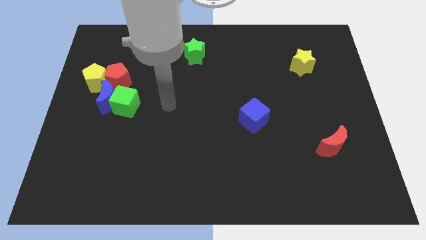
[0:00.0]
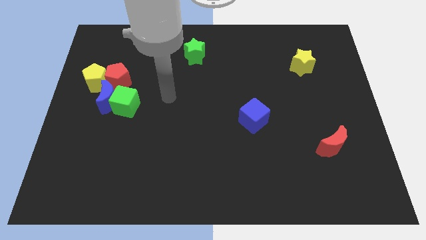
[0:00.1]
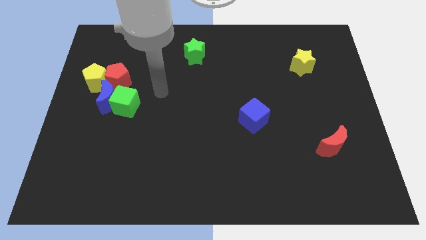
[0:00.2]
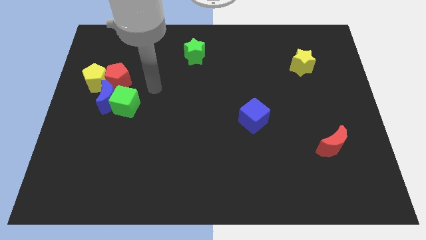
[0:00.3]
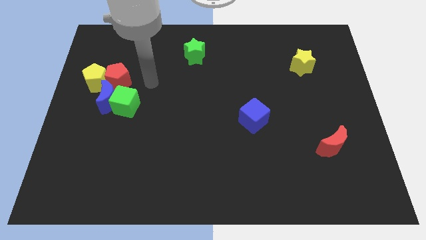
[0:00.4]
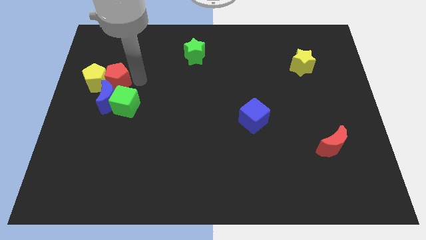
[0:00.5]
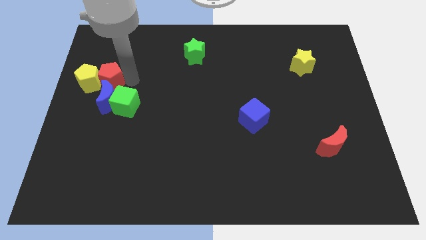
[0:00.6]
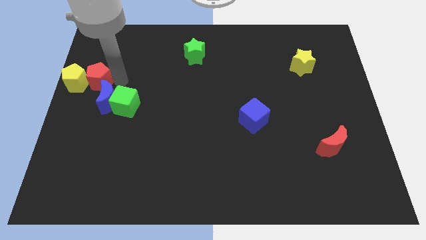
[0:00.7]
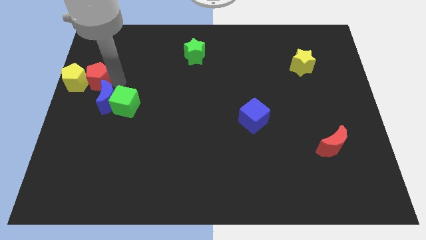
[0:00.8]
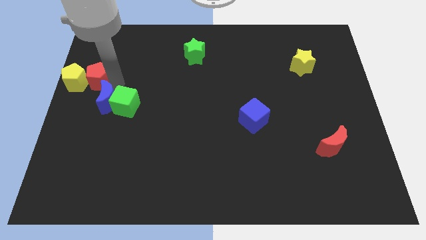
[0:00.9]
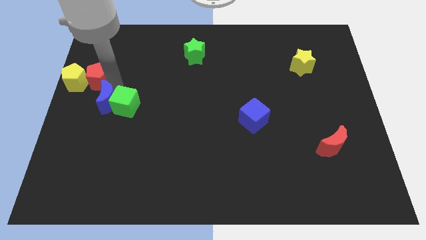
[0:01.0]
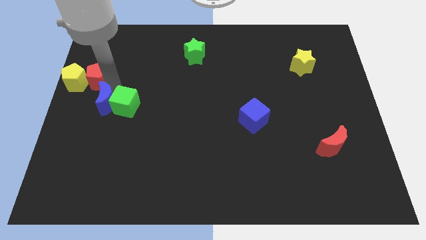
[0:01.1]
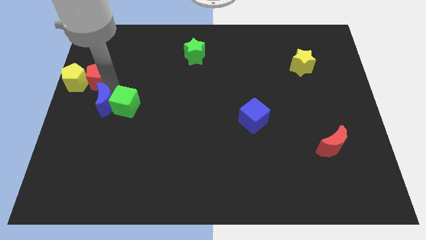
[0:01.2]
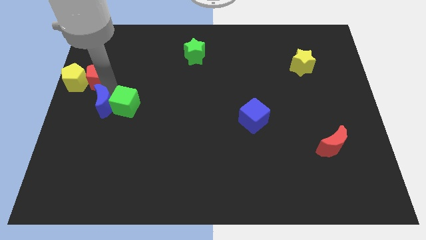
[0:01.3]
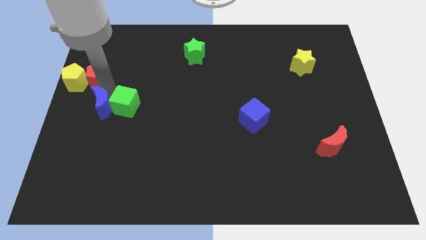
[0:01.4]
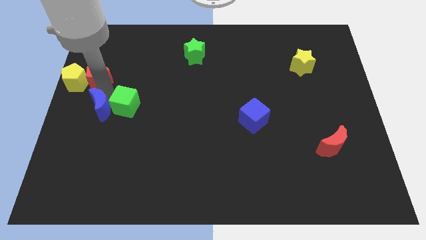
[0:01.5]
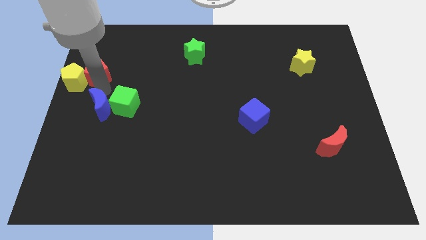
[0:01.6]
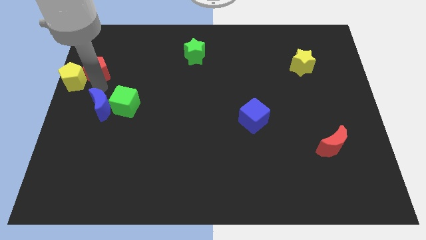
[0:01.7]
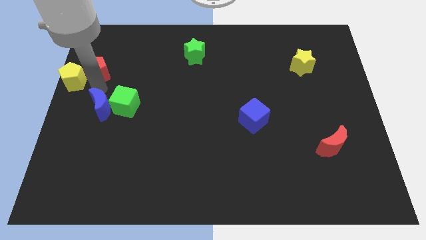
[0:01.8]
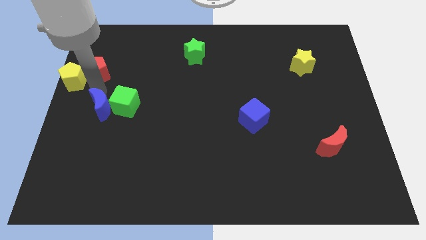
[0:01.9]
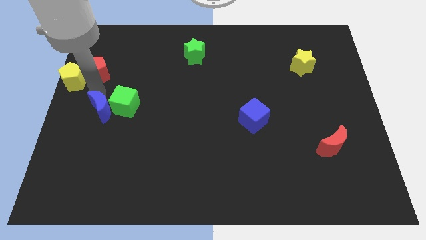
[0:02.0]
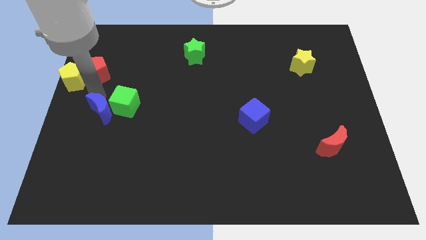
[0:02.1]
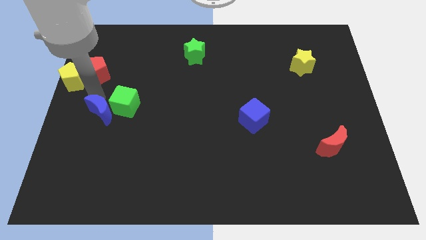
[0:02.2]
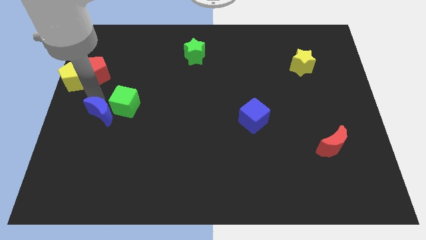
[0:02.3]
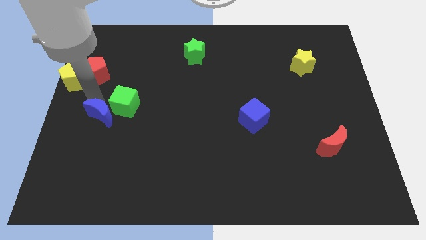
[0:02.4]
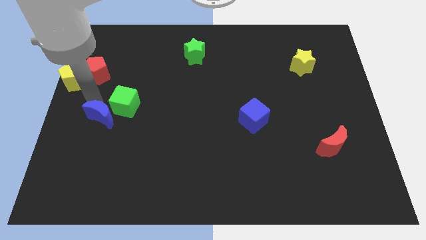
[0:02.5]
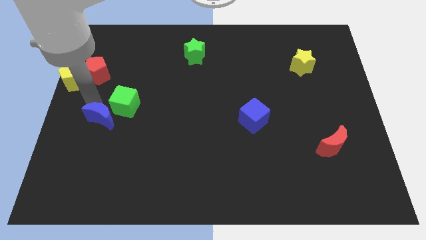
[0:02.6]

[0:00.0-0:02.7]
separate the blue moon from the green cube, red pentagon, and yellow pentagon

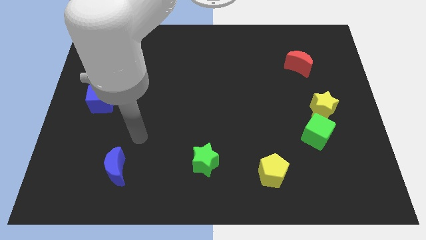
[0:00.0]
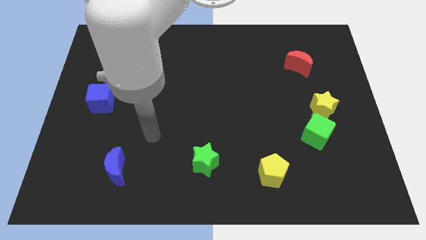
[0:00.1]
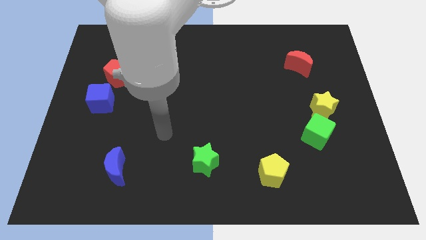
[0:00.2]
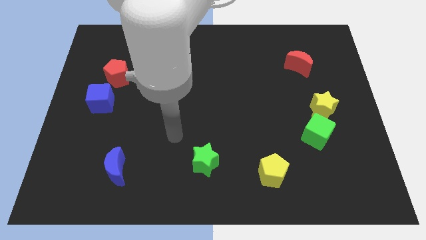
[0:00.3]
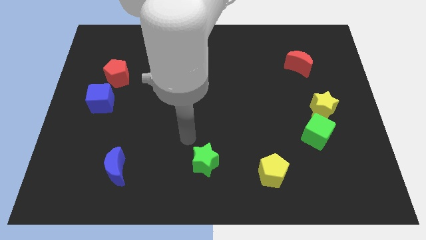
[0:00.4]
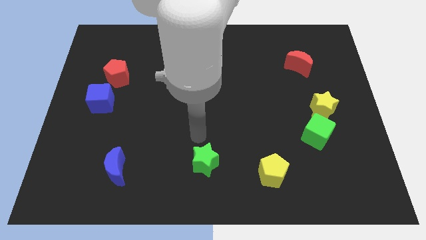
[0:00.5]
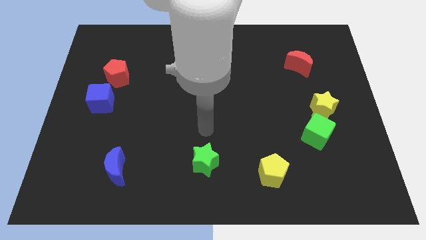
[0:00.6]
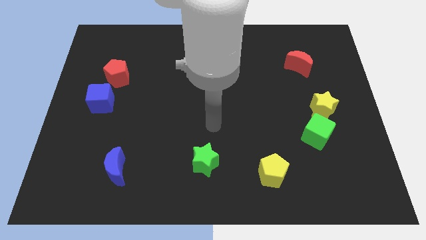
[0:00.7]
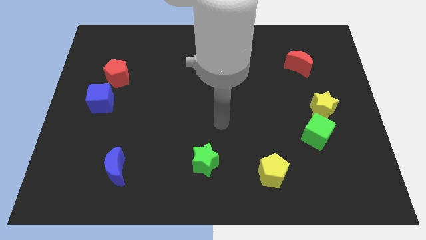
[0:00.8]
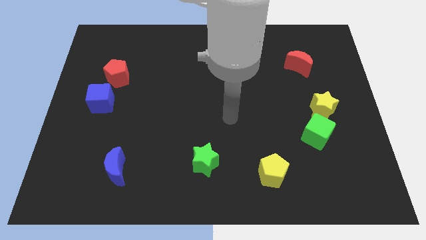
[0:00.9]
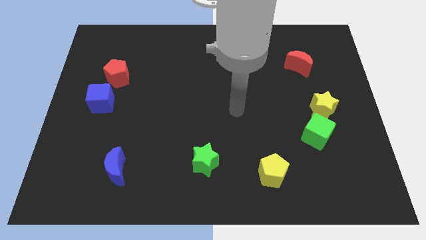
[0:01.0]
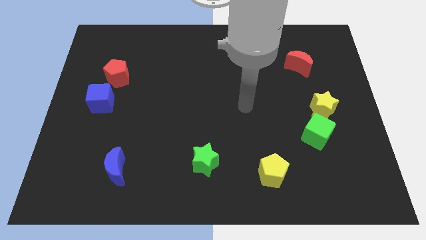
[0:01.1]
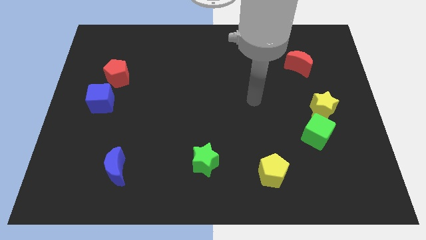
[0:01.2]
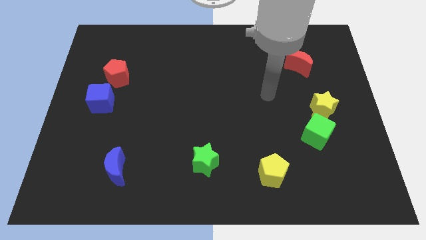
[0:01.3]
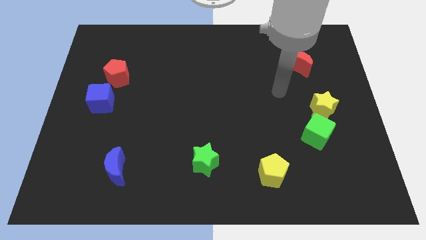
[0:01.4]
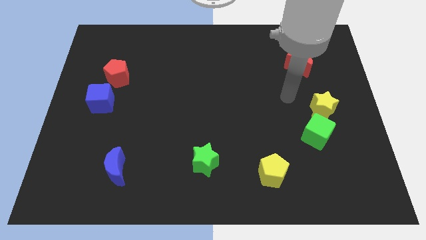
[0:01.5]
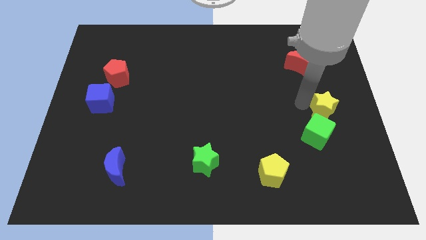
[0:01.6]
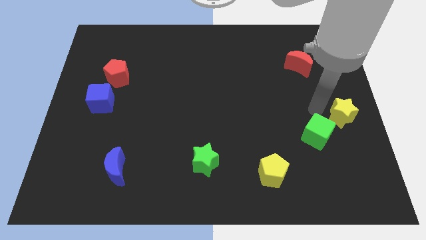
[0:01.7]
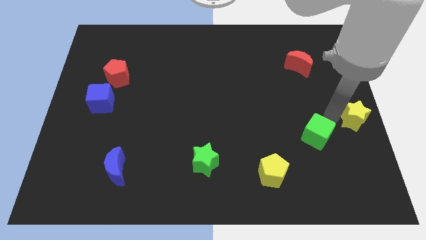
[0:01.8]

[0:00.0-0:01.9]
move the green cube away from the yellow star

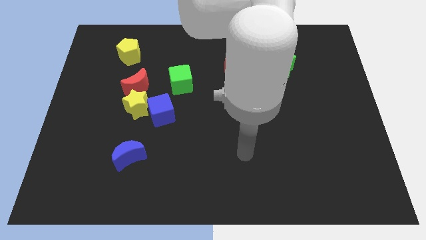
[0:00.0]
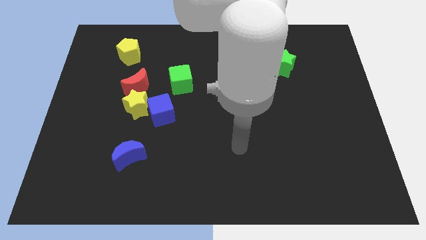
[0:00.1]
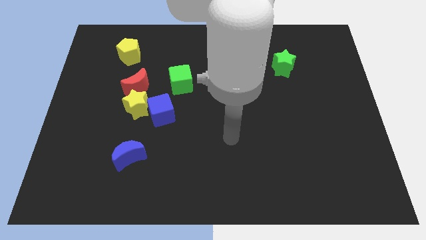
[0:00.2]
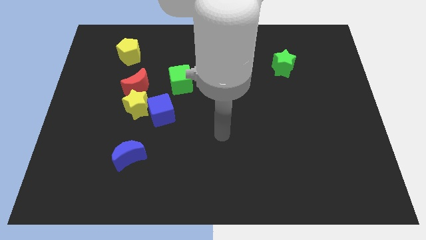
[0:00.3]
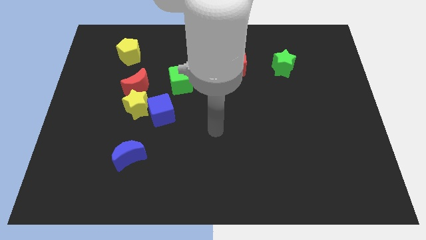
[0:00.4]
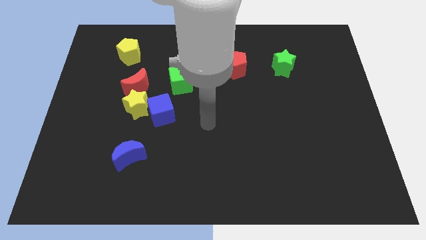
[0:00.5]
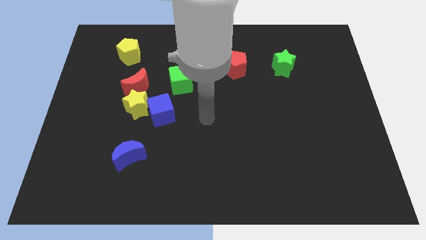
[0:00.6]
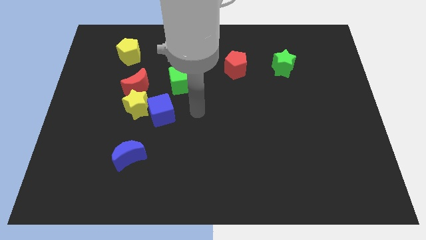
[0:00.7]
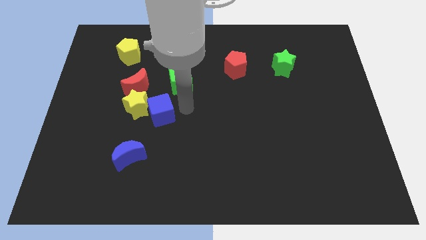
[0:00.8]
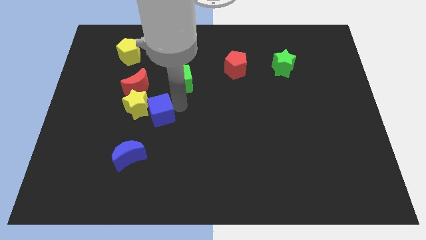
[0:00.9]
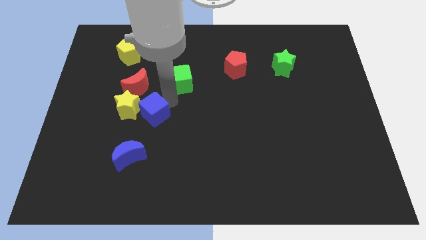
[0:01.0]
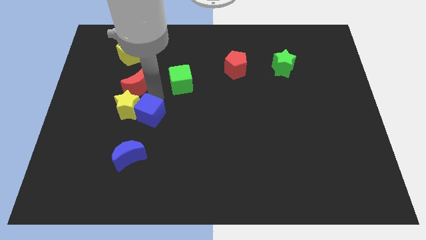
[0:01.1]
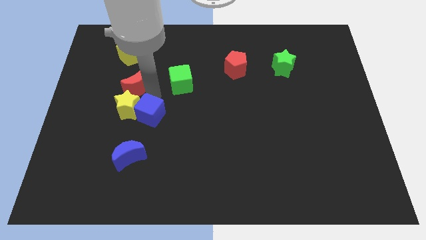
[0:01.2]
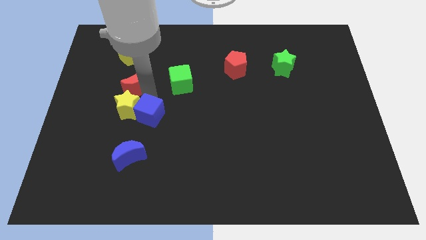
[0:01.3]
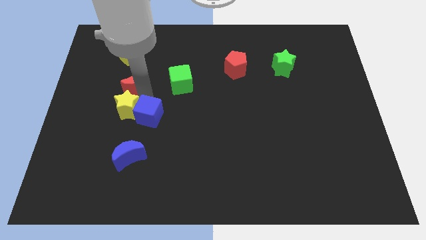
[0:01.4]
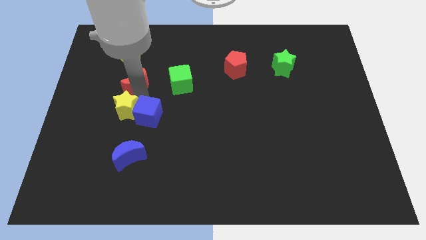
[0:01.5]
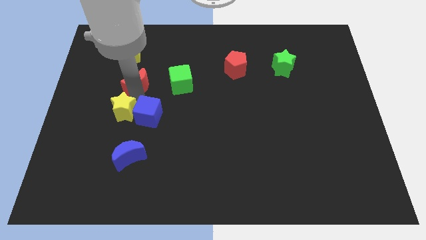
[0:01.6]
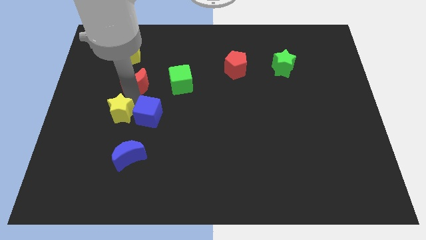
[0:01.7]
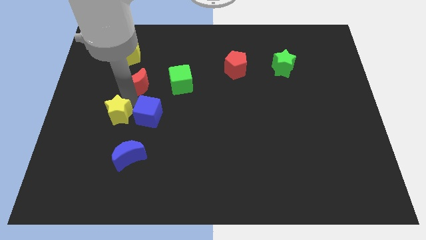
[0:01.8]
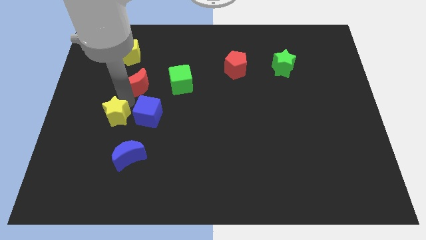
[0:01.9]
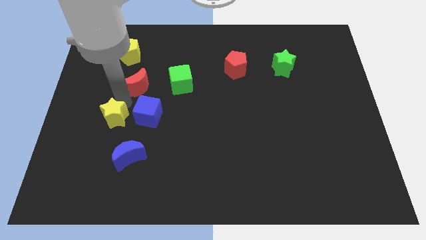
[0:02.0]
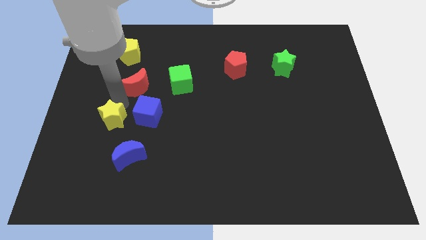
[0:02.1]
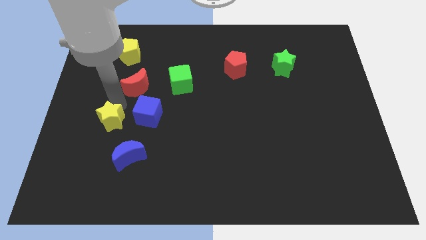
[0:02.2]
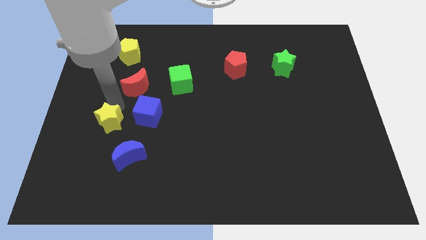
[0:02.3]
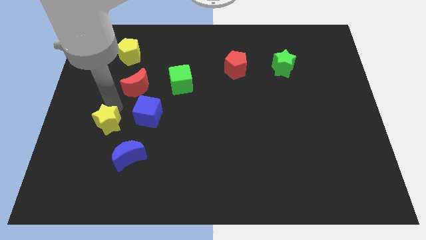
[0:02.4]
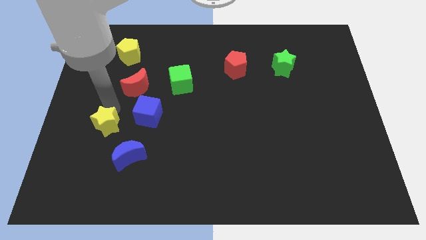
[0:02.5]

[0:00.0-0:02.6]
separate the yellow star from the red moon and blue cube

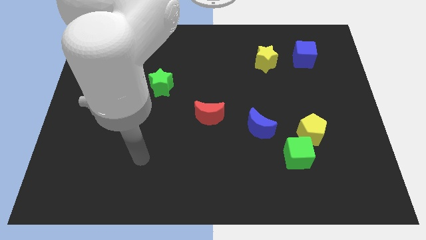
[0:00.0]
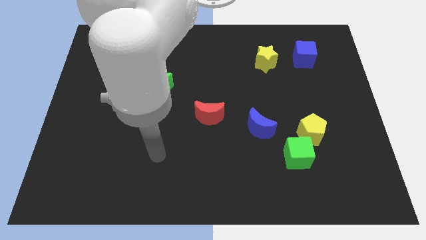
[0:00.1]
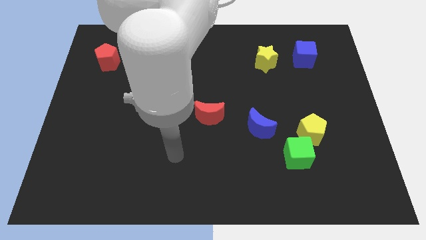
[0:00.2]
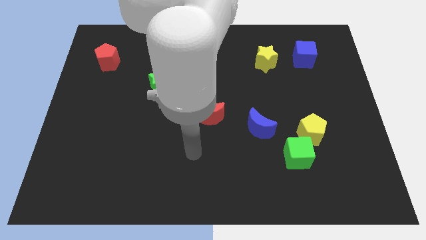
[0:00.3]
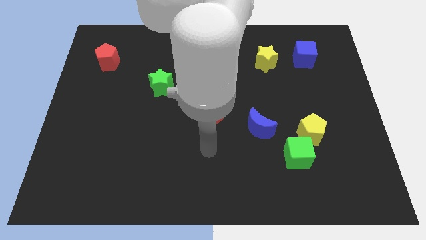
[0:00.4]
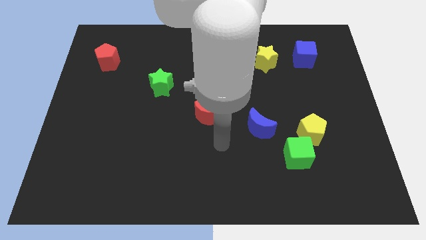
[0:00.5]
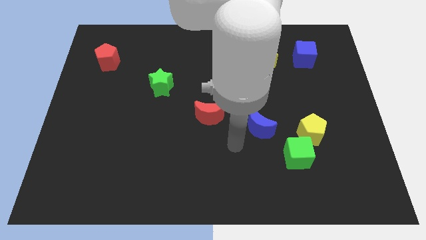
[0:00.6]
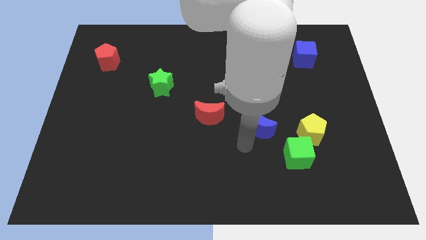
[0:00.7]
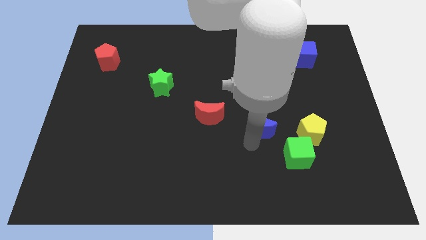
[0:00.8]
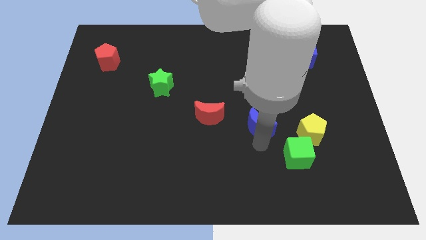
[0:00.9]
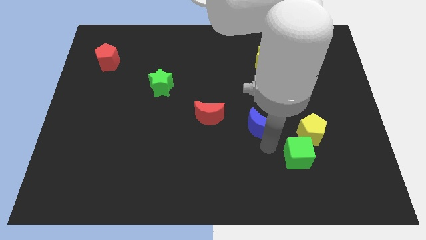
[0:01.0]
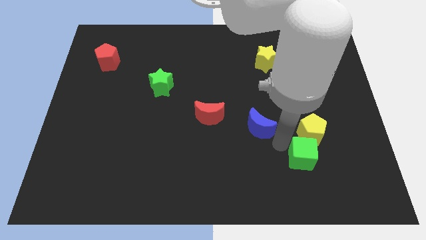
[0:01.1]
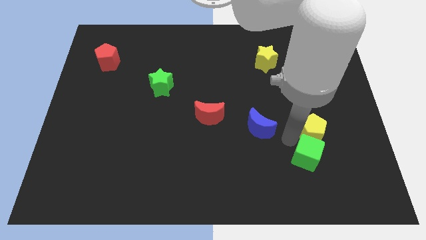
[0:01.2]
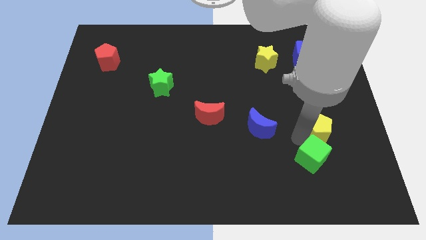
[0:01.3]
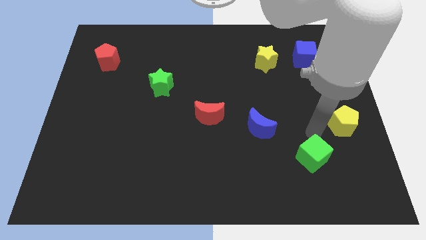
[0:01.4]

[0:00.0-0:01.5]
separate the green cube from the yellow pentagon

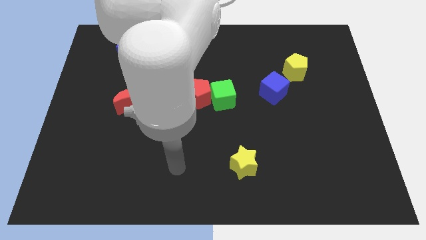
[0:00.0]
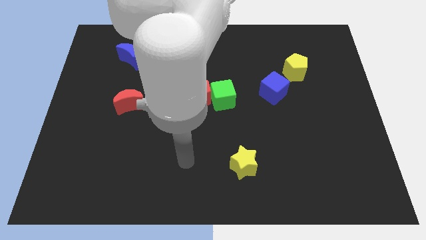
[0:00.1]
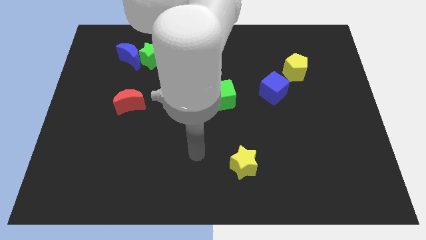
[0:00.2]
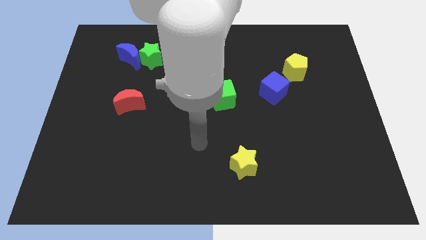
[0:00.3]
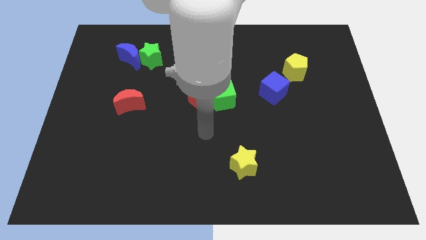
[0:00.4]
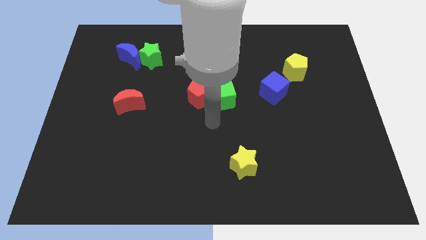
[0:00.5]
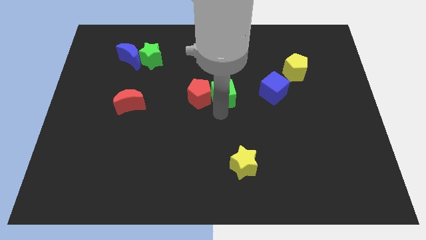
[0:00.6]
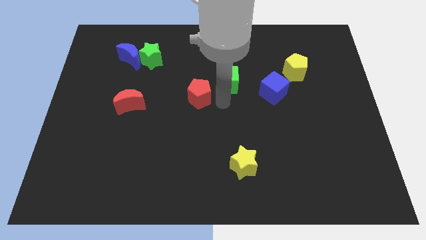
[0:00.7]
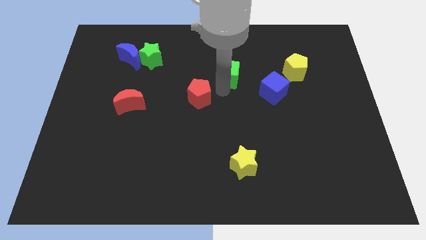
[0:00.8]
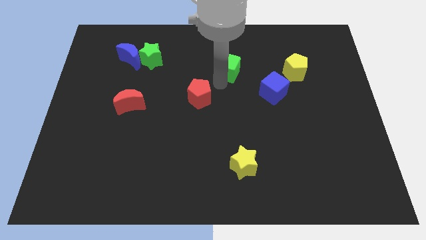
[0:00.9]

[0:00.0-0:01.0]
move the red pentagon away from the green cube
